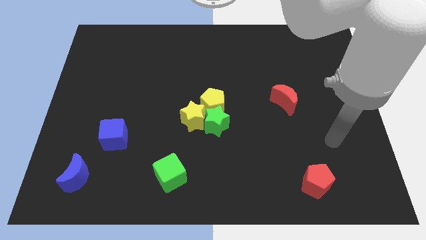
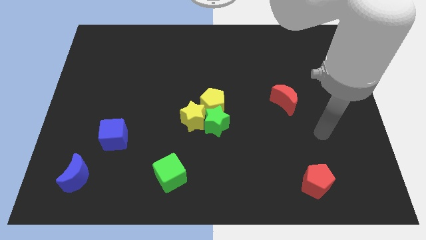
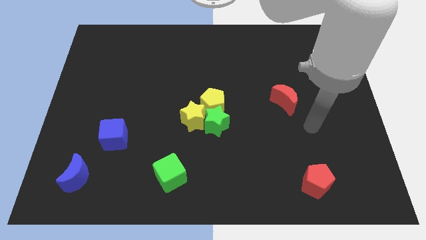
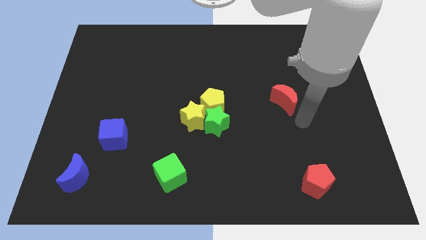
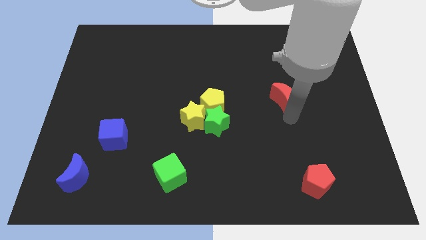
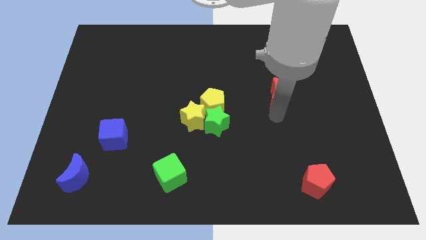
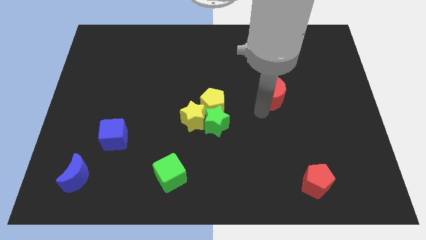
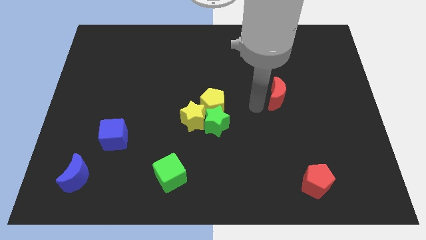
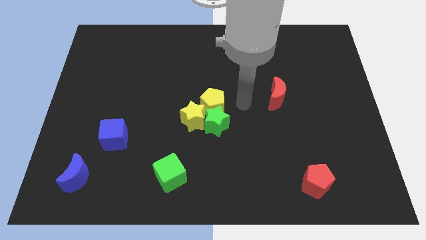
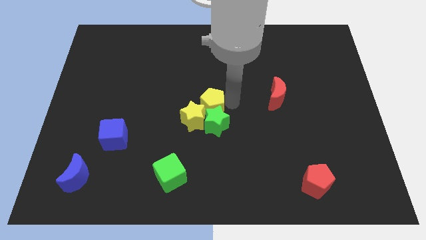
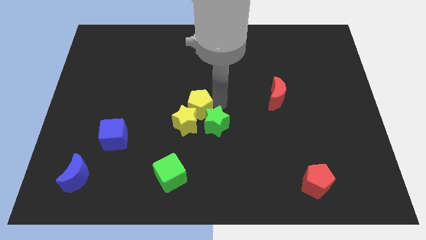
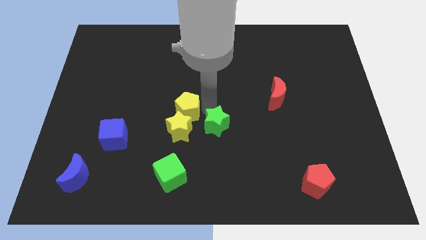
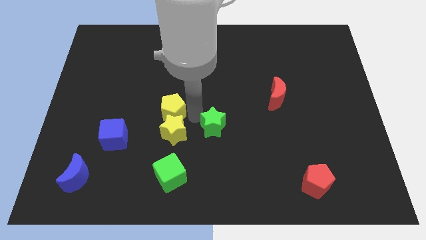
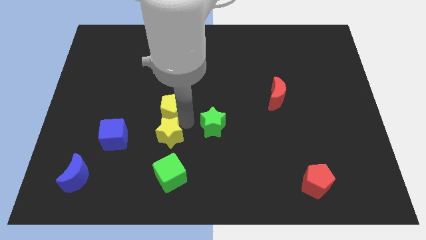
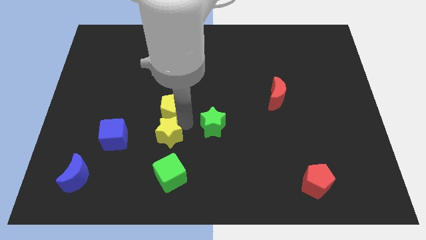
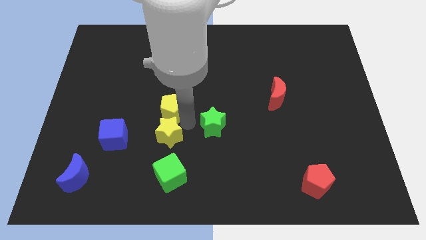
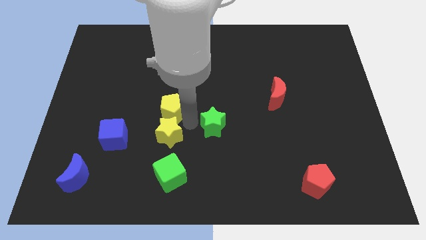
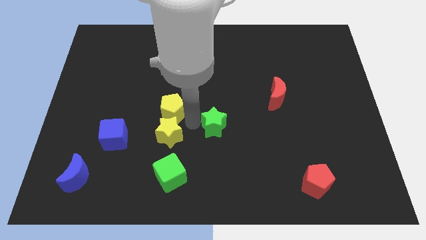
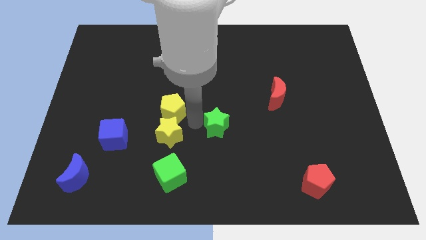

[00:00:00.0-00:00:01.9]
pull the green star apart from the yellow star and yellow pentagon

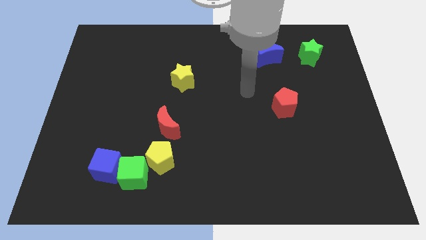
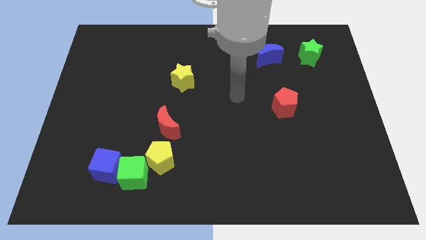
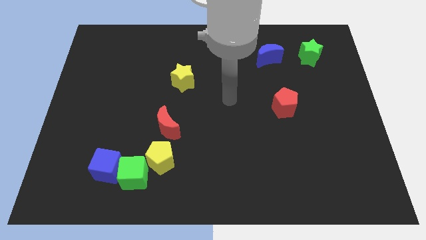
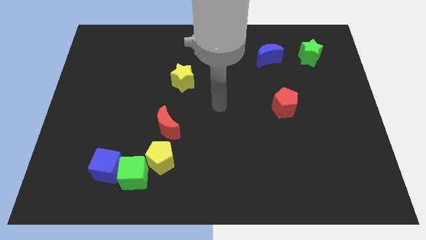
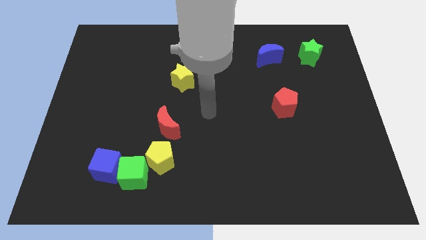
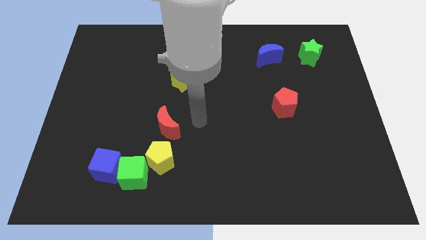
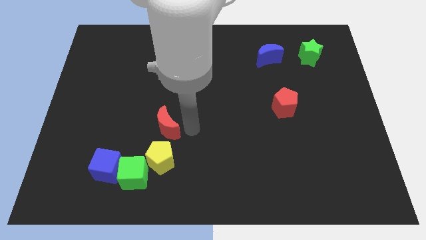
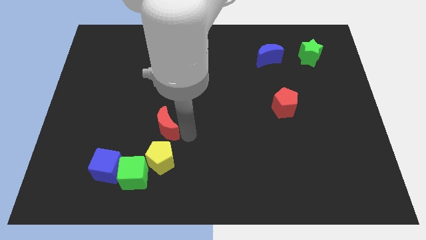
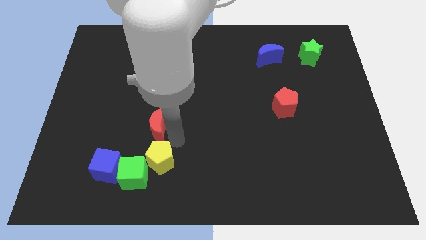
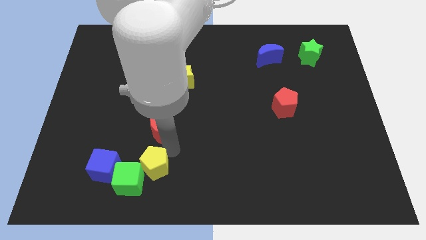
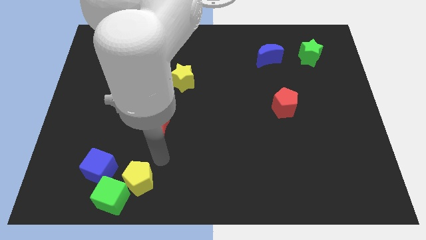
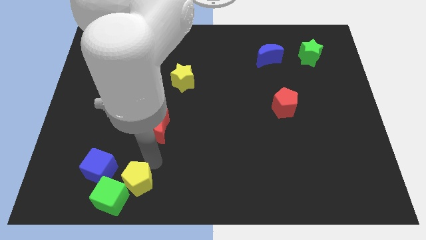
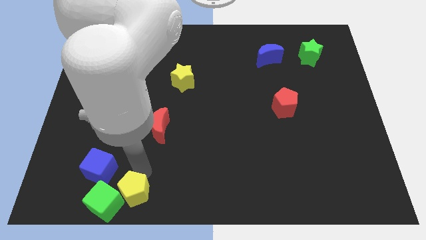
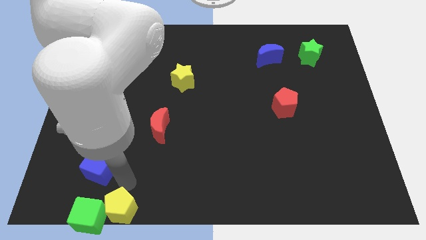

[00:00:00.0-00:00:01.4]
move the blue cube away from the green cube

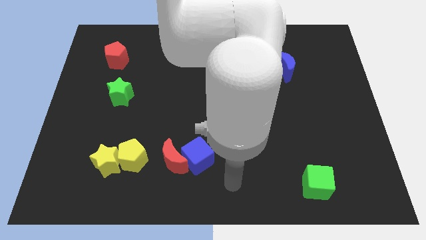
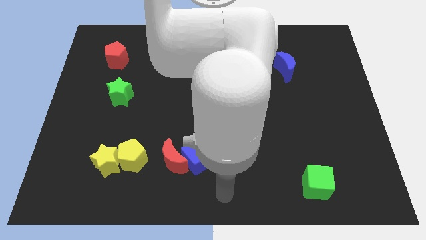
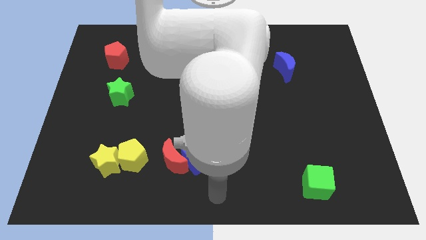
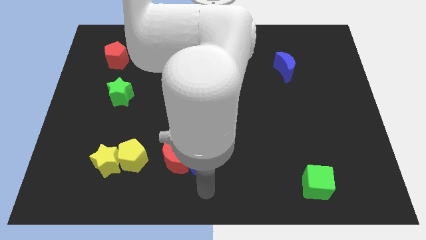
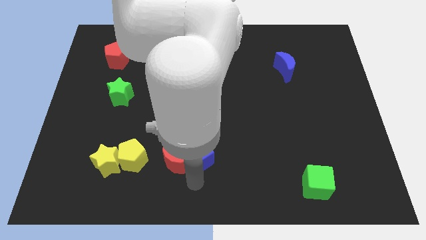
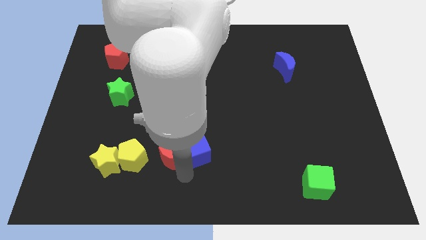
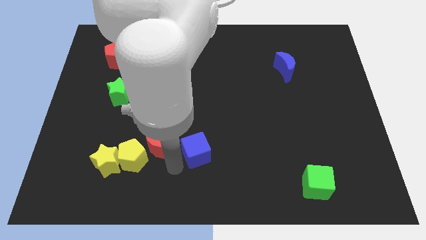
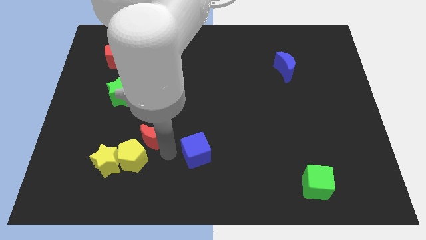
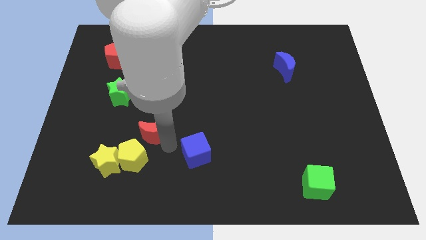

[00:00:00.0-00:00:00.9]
pull the blue cube apart from the red moon

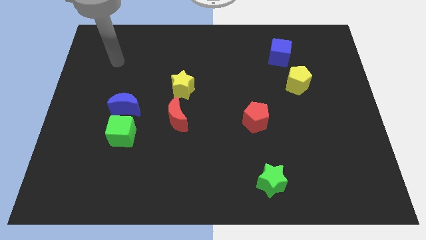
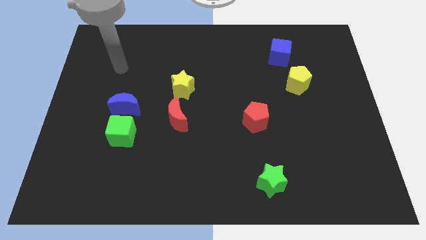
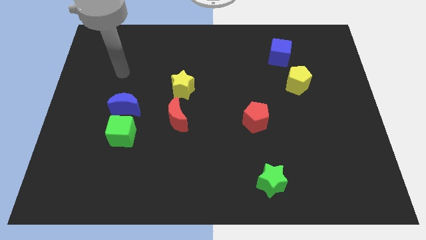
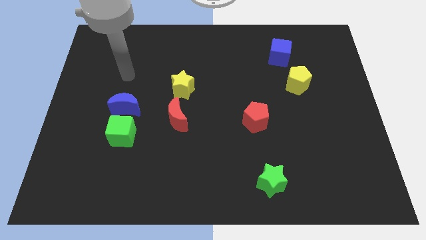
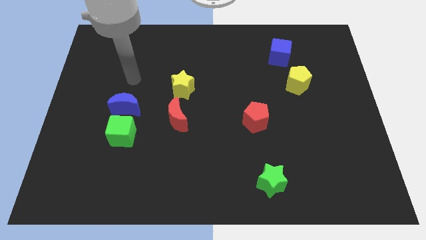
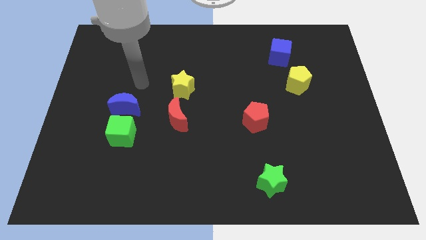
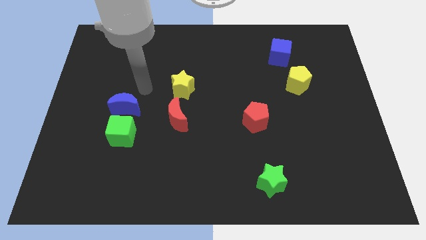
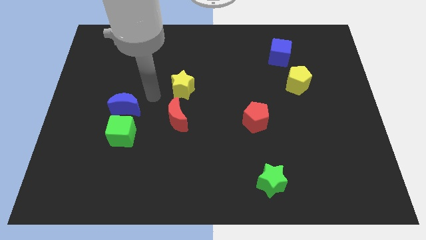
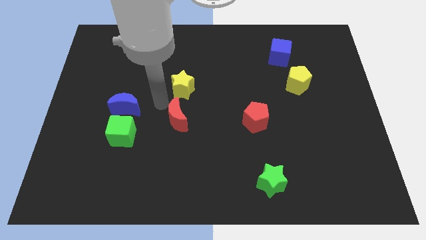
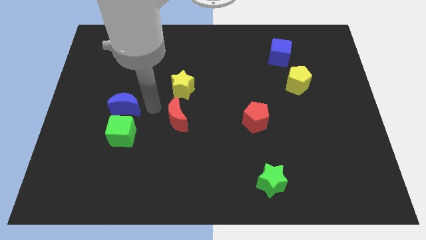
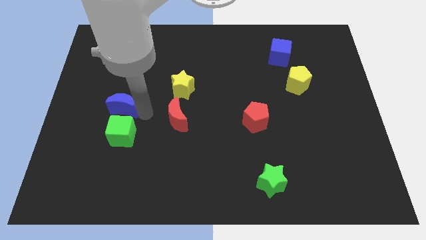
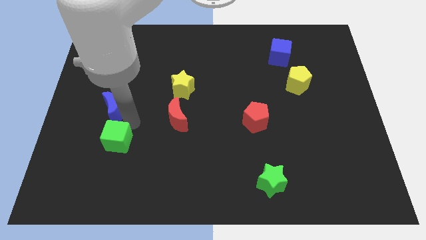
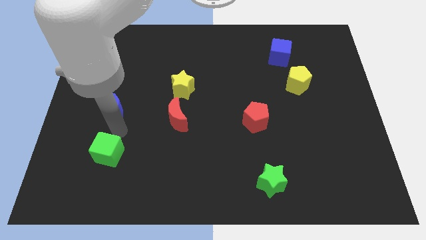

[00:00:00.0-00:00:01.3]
move the blue moon away from the green cube

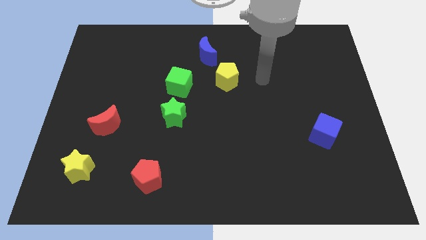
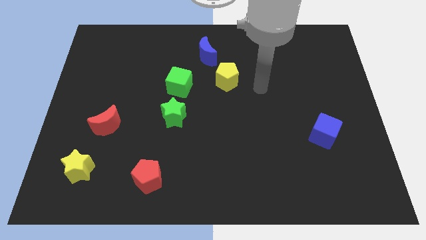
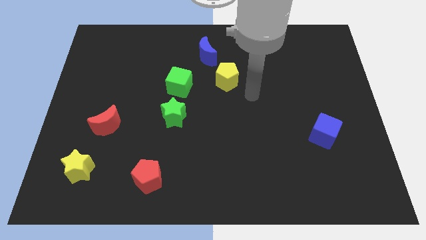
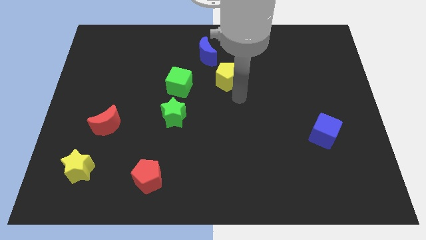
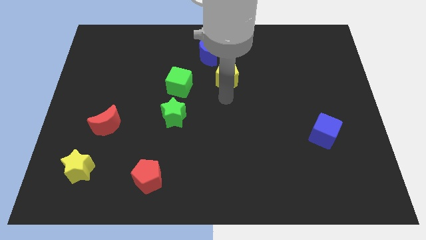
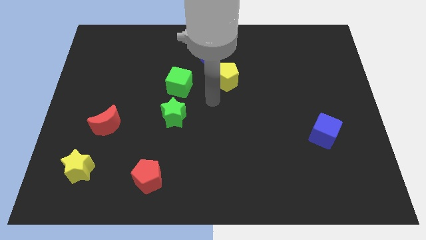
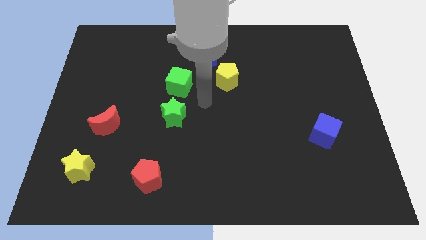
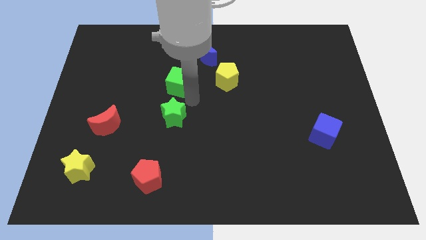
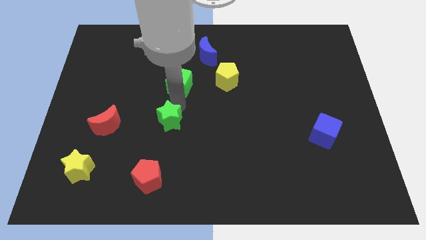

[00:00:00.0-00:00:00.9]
move the green cube away from the green star

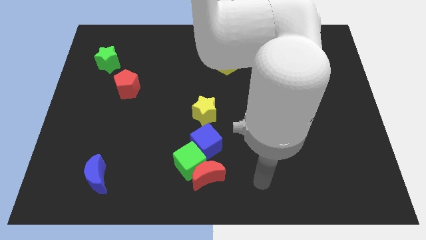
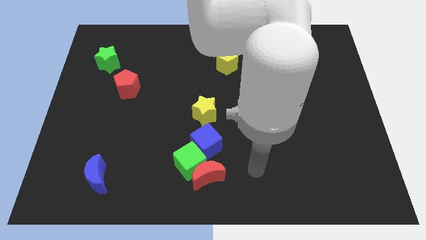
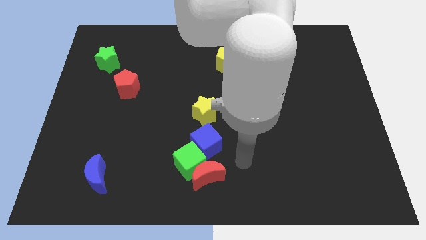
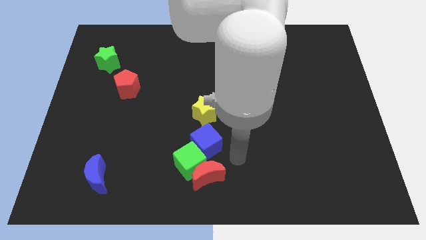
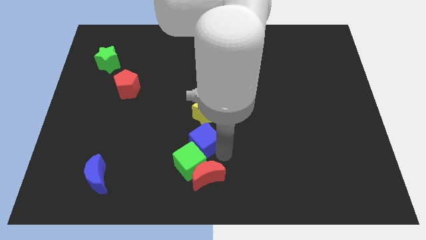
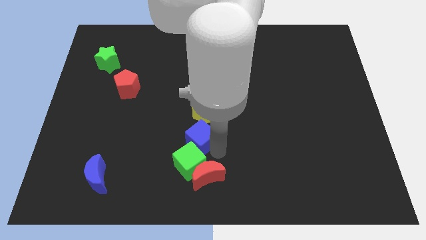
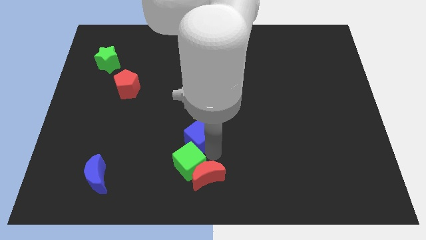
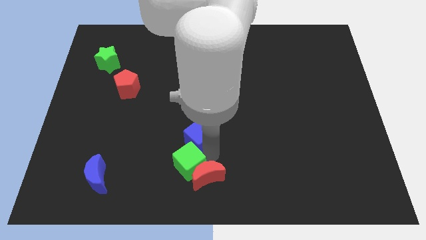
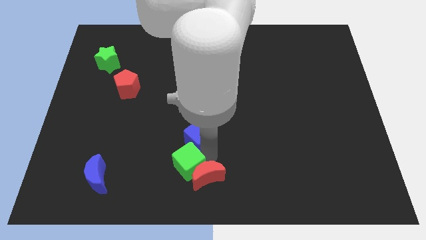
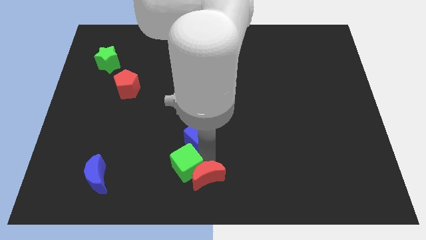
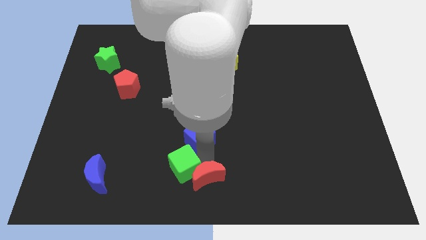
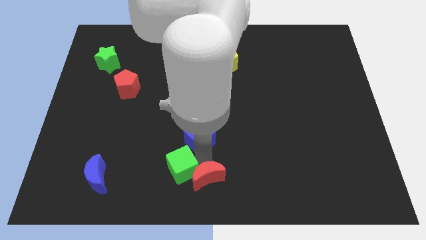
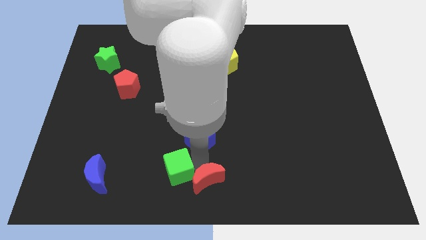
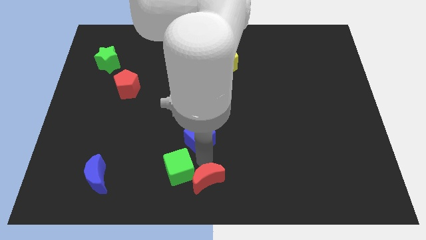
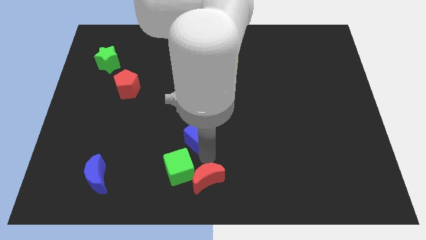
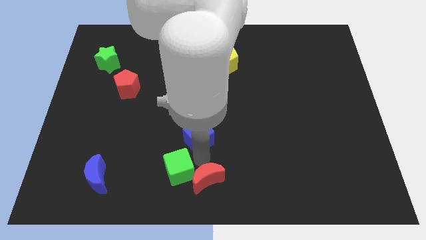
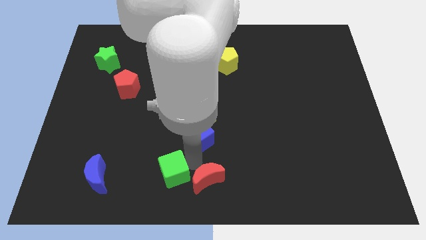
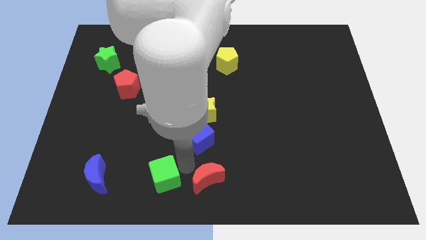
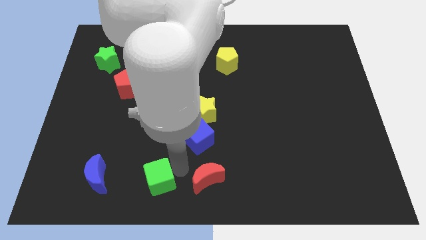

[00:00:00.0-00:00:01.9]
pull the green cube apart from the red moon and blue cube

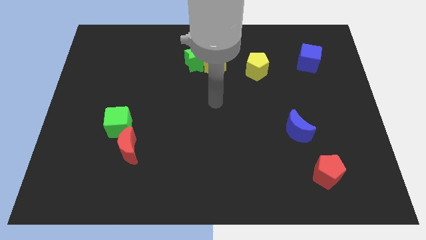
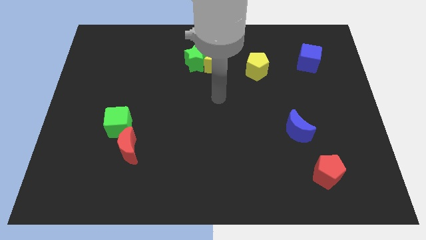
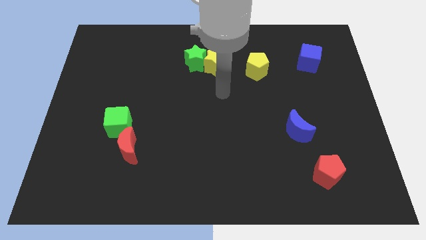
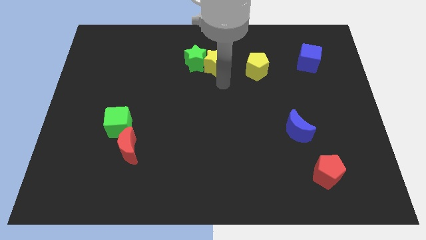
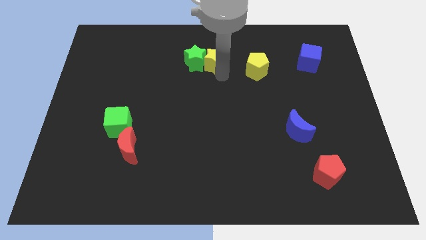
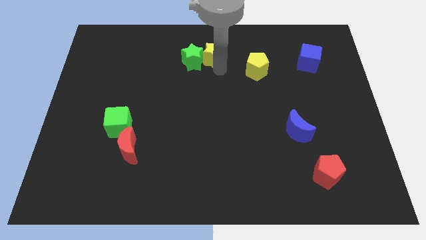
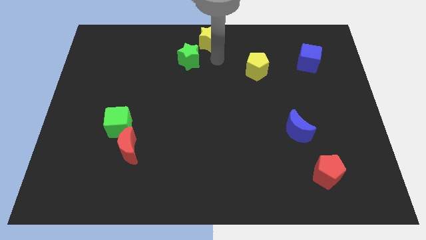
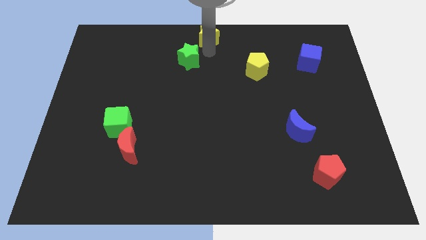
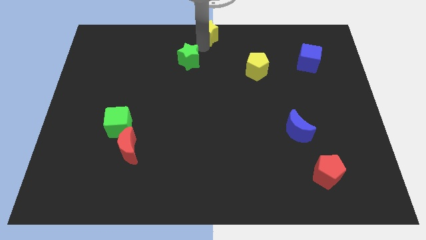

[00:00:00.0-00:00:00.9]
pull the green star apart from the yellow star
